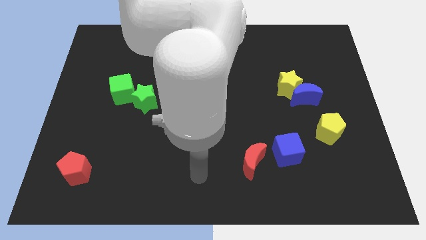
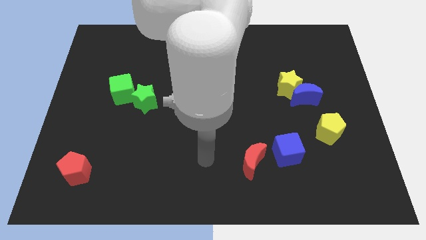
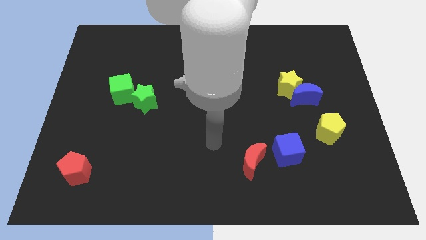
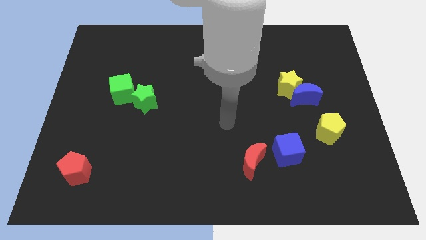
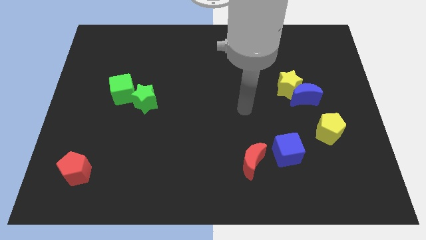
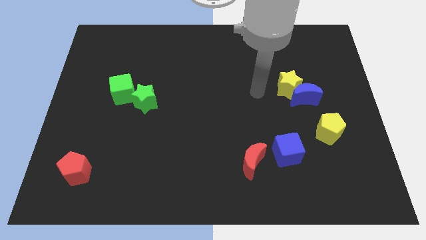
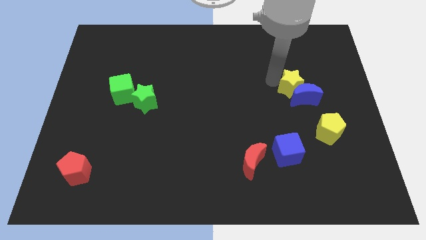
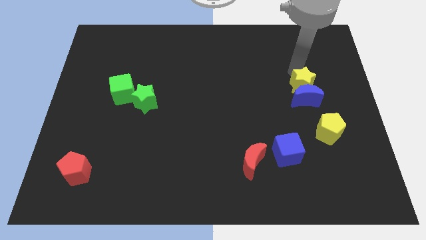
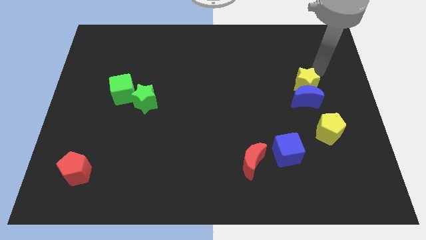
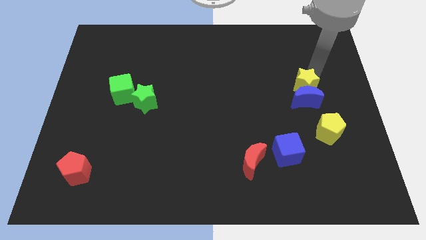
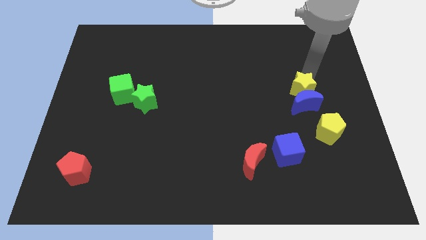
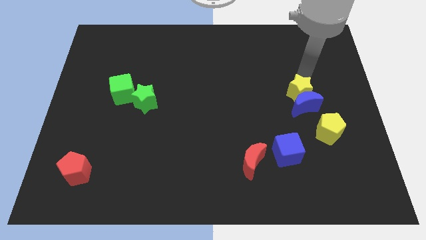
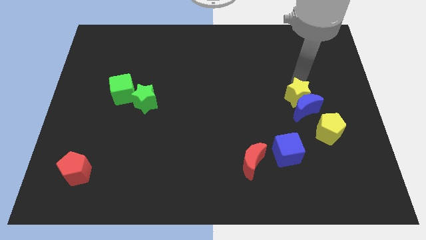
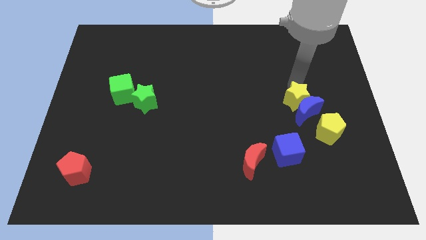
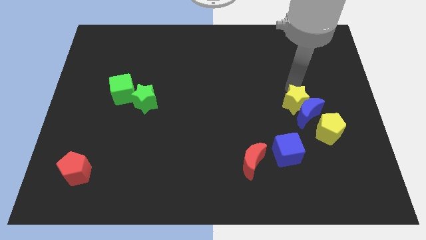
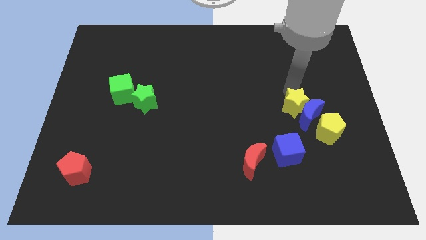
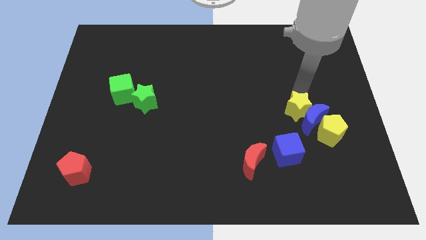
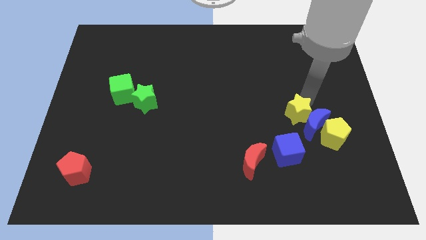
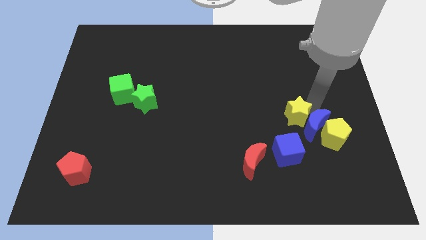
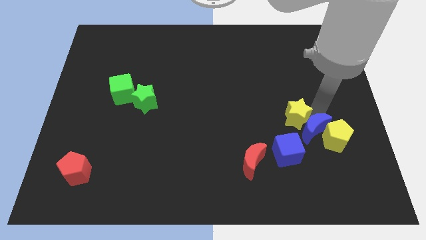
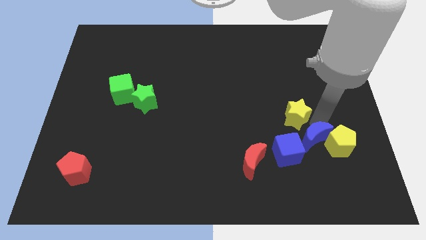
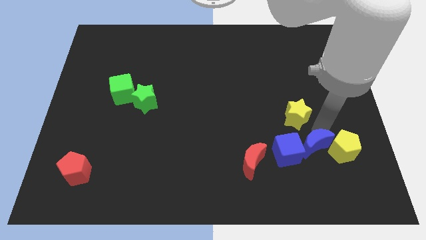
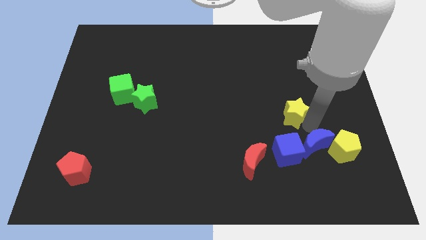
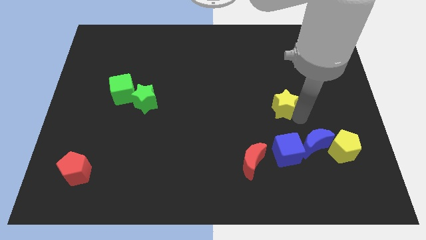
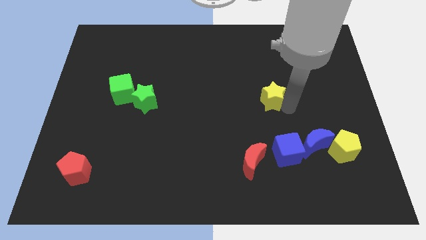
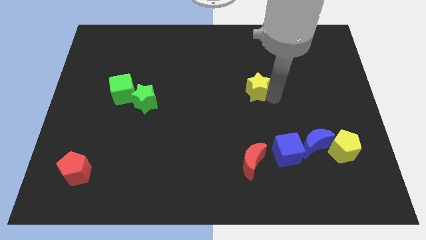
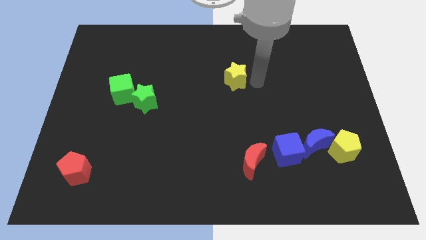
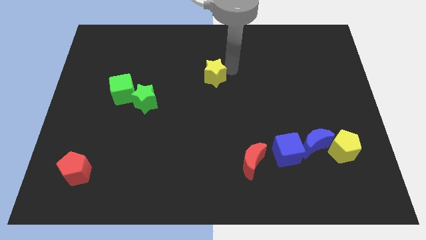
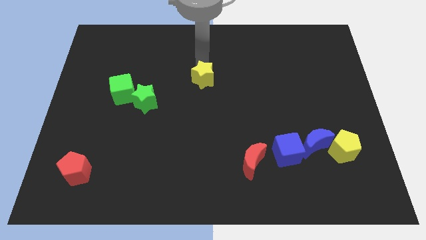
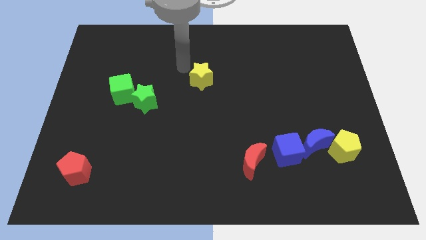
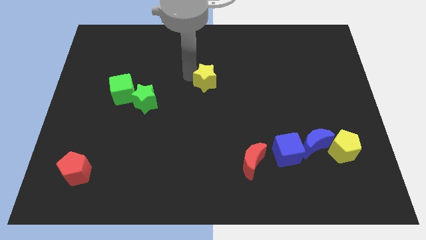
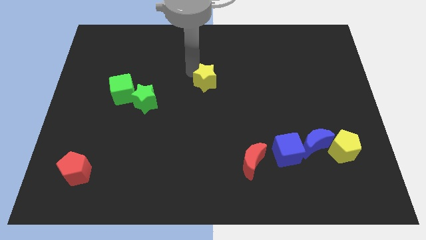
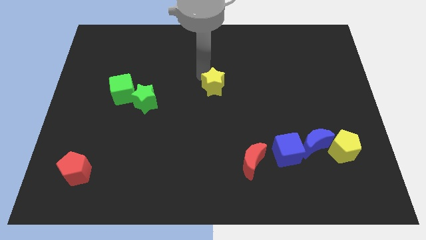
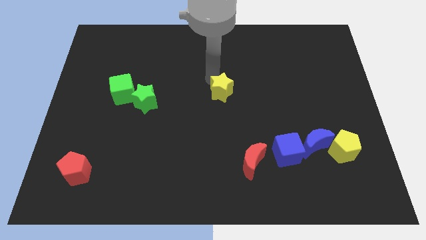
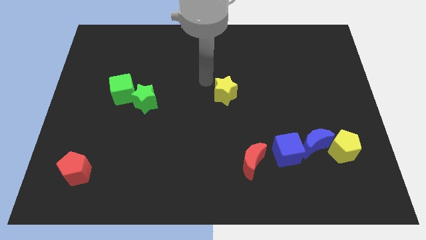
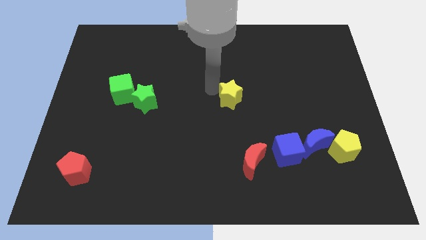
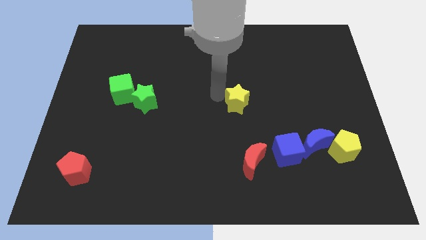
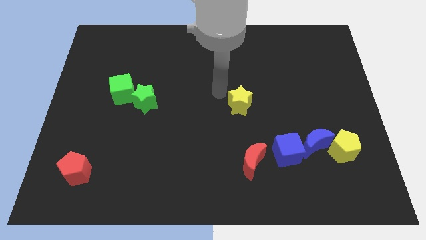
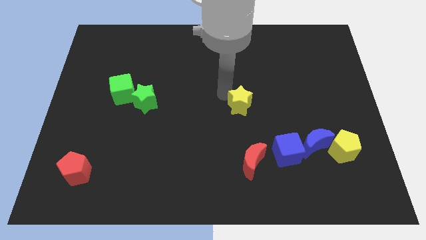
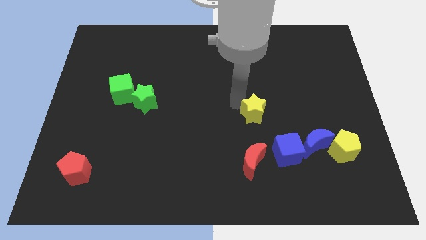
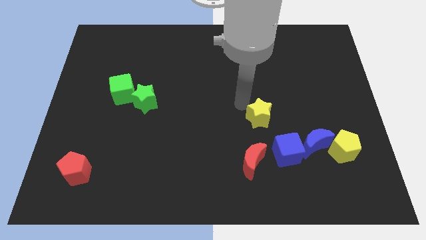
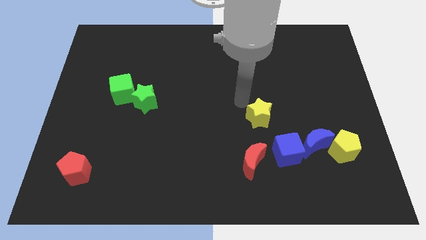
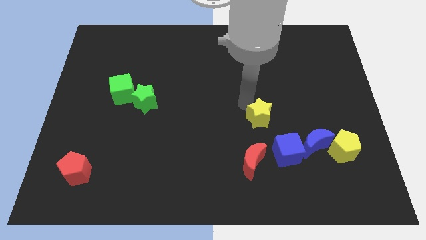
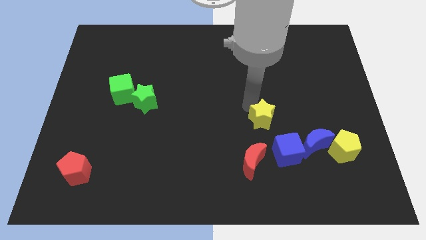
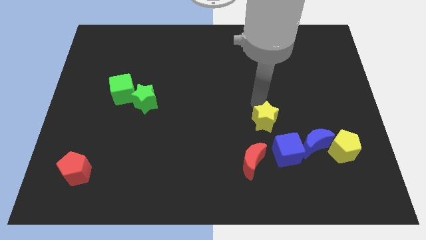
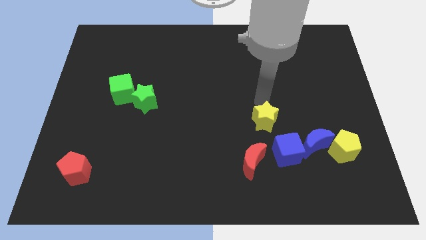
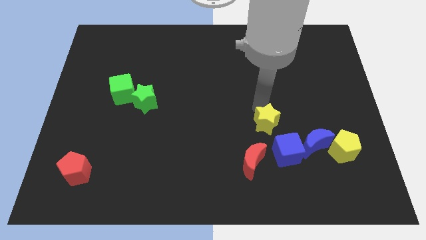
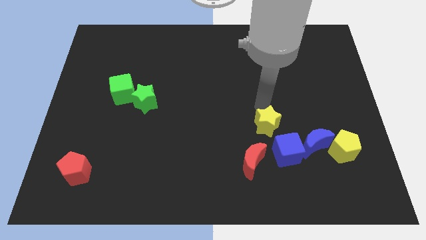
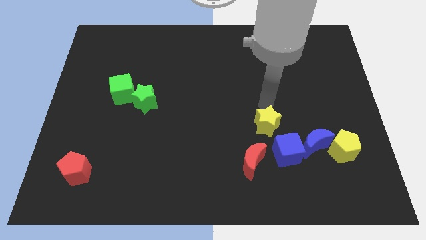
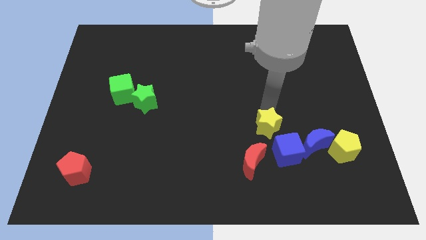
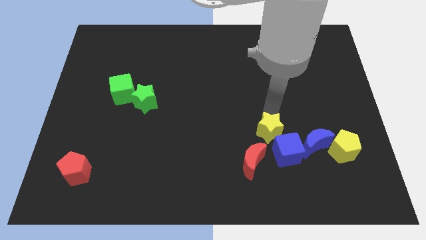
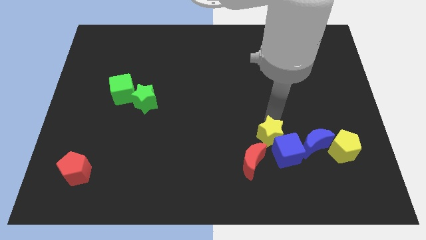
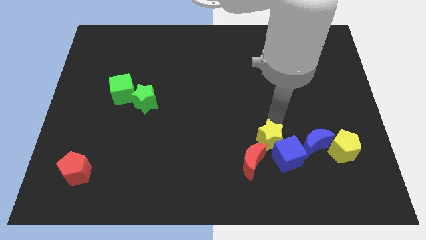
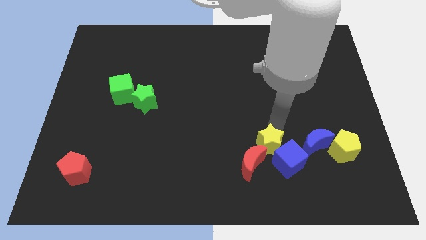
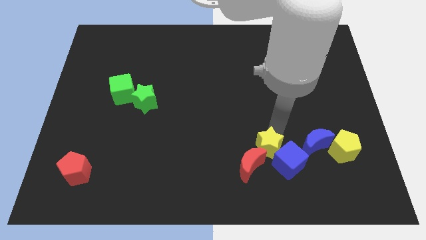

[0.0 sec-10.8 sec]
put the yellow star to the red moon

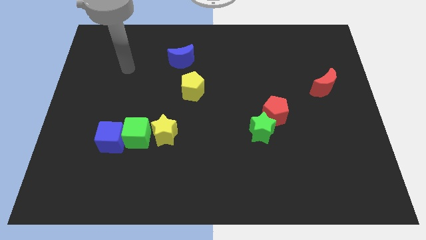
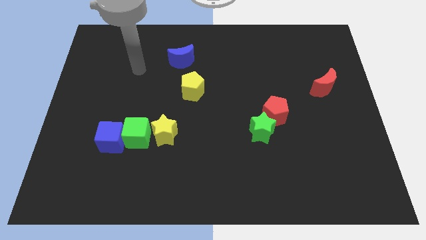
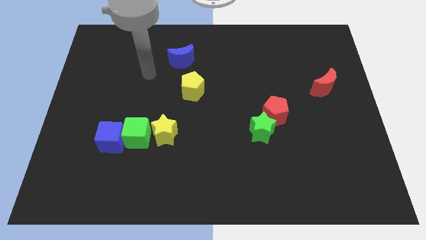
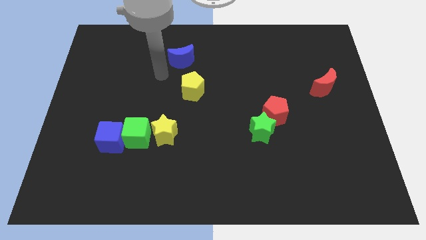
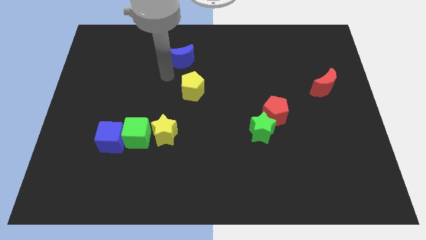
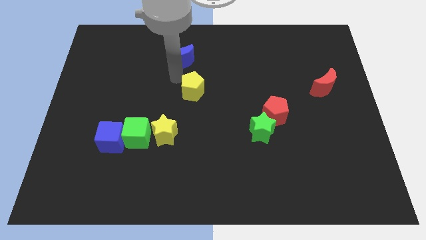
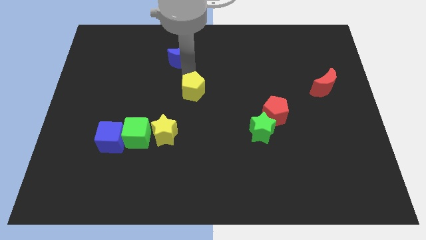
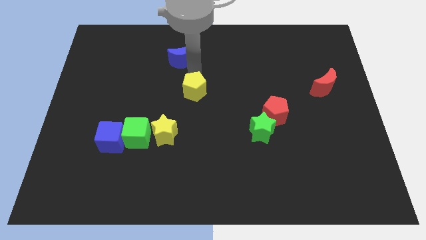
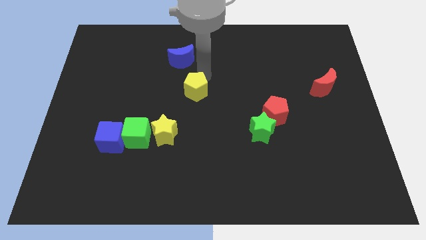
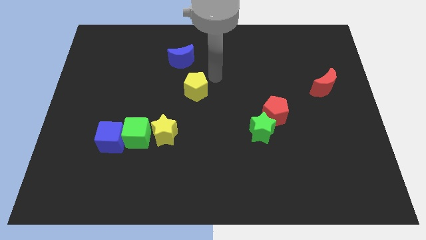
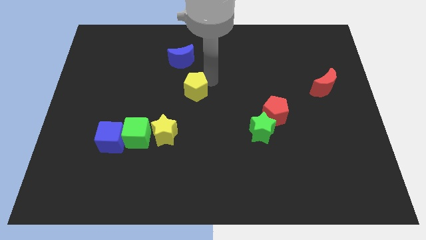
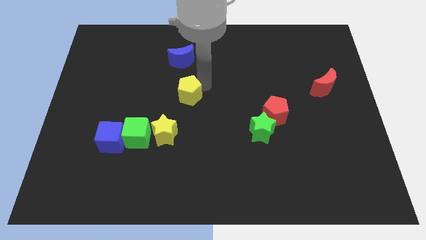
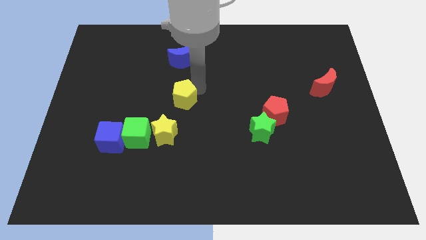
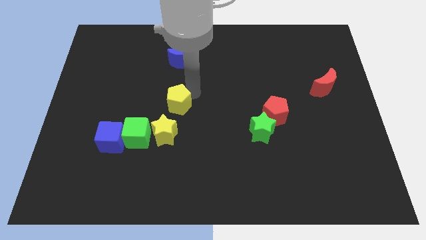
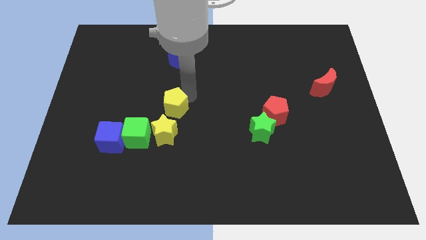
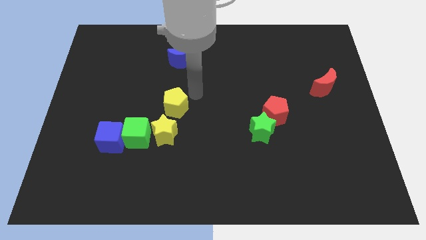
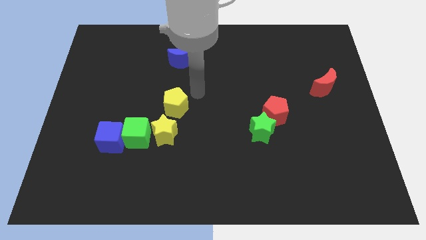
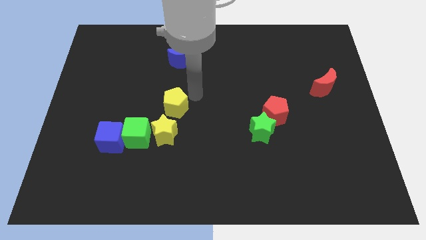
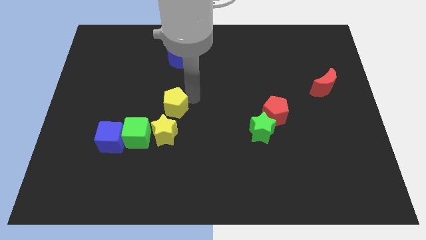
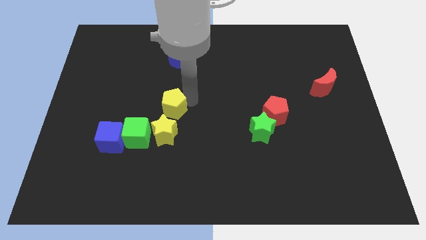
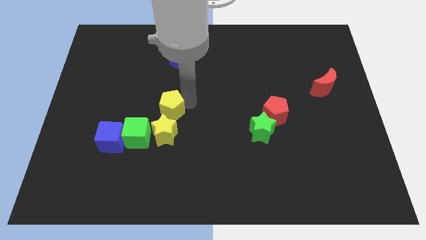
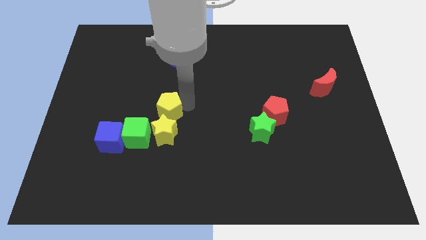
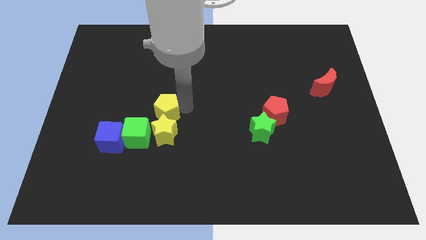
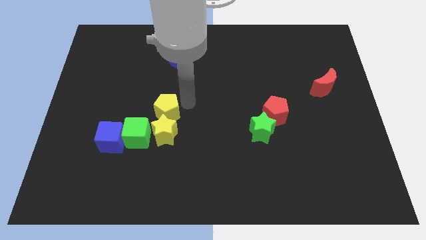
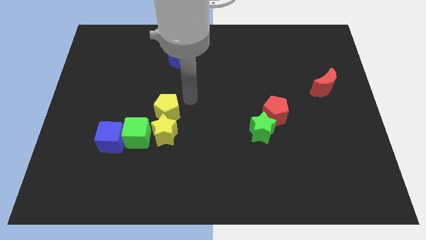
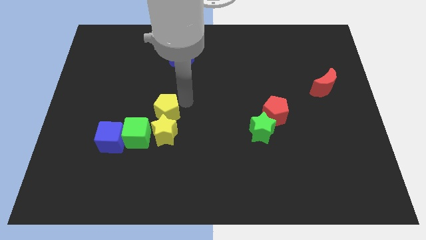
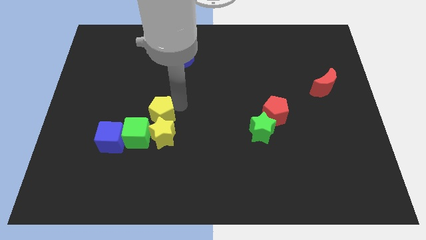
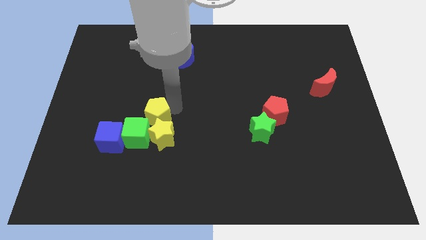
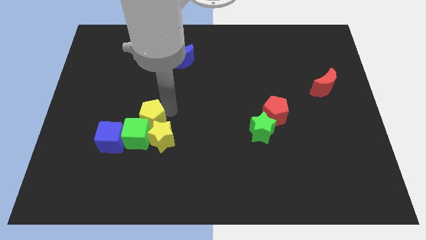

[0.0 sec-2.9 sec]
move the yellow pentagon close to the green cube
